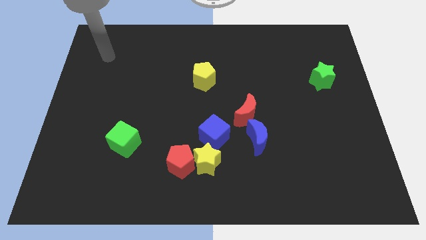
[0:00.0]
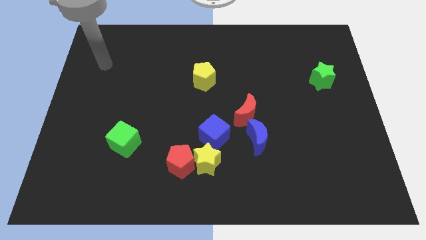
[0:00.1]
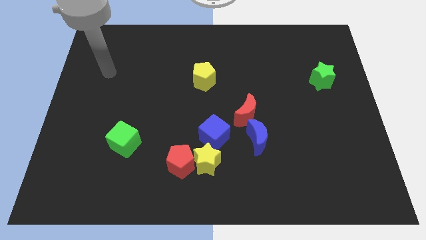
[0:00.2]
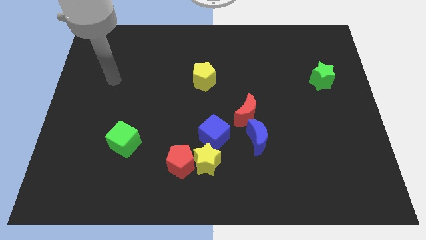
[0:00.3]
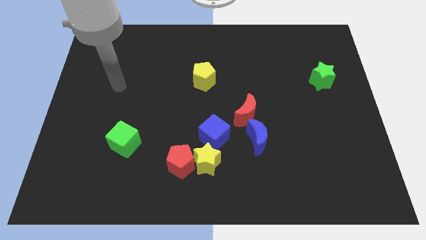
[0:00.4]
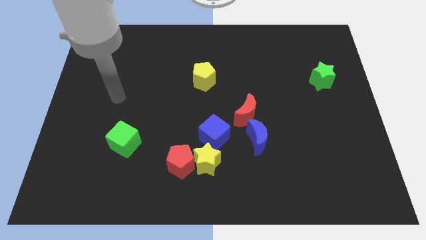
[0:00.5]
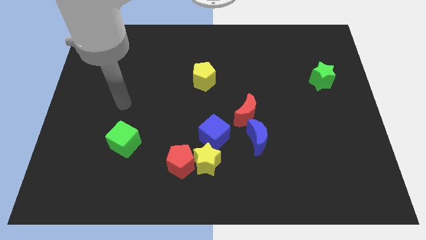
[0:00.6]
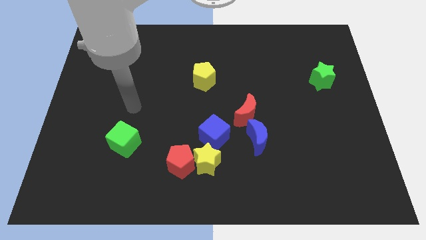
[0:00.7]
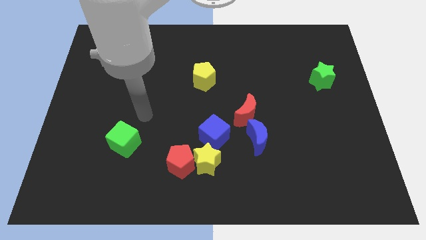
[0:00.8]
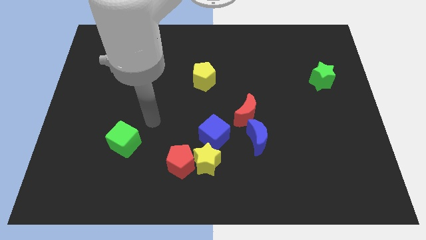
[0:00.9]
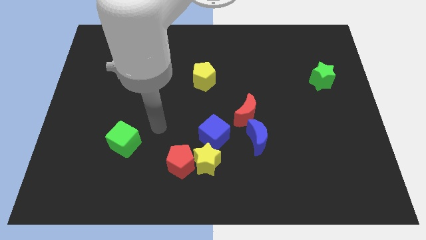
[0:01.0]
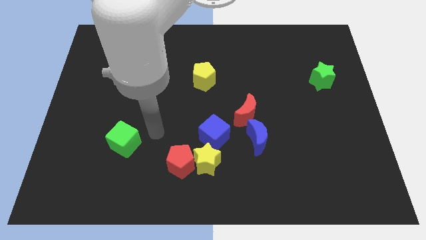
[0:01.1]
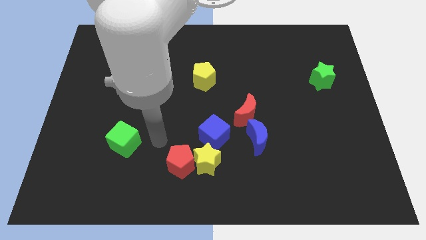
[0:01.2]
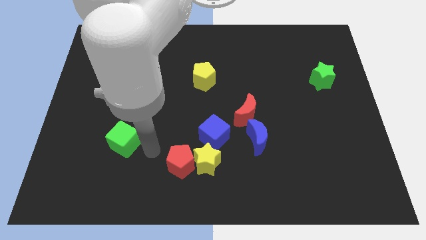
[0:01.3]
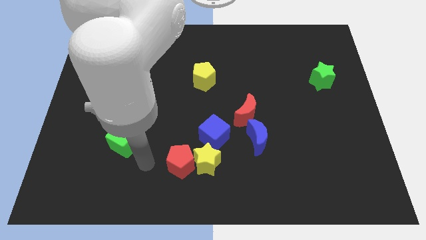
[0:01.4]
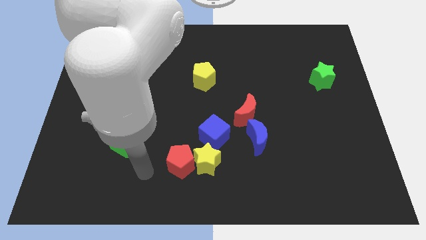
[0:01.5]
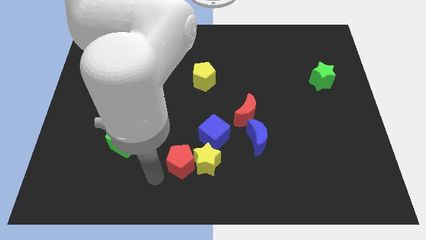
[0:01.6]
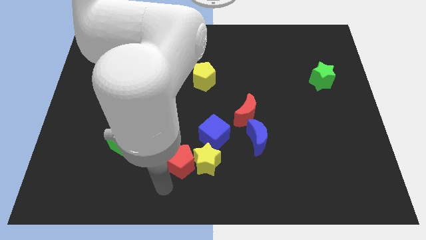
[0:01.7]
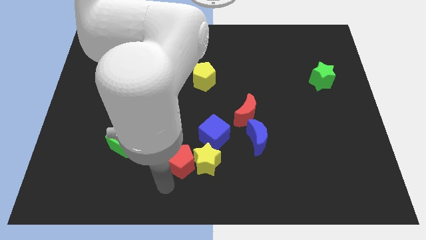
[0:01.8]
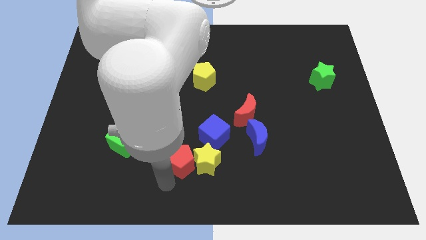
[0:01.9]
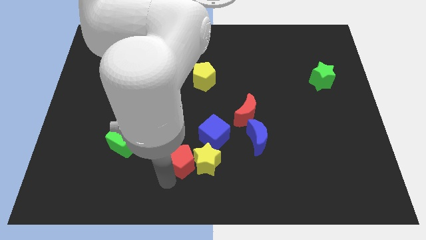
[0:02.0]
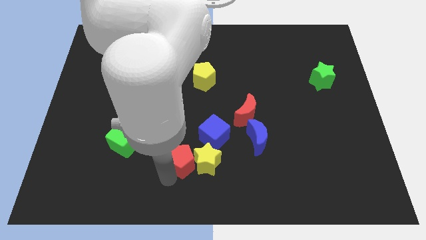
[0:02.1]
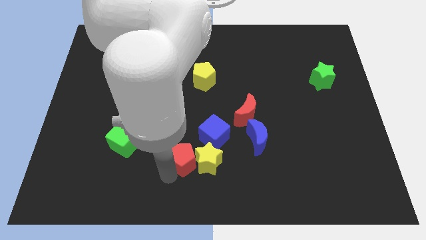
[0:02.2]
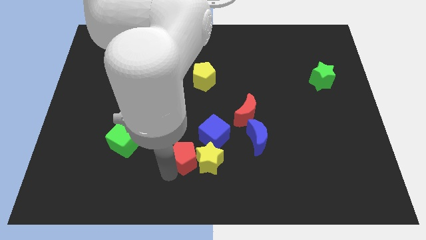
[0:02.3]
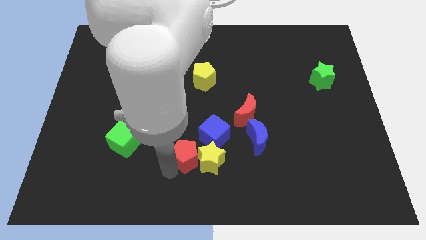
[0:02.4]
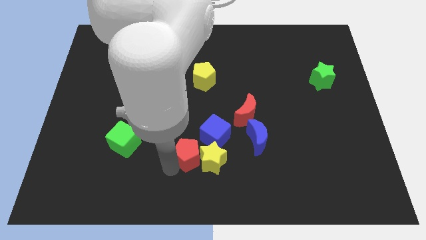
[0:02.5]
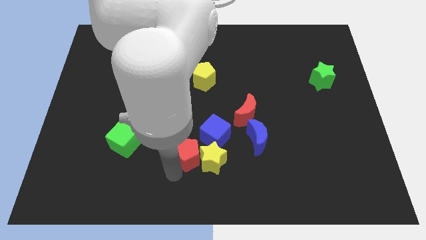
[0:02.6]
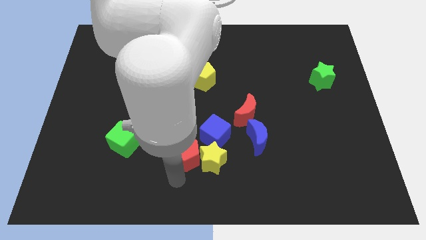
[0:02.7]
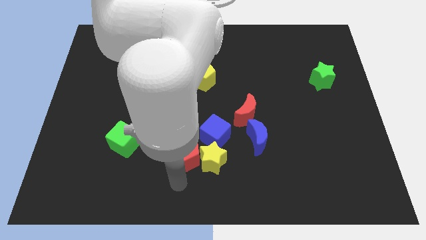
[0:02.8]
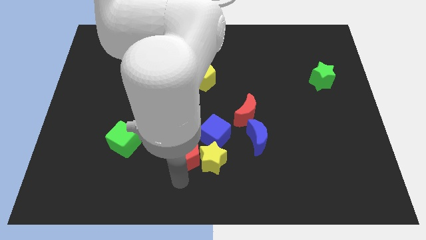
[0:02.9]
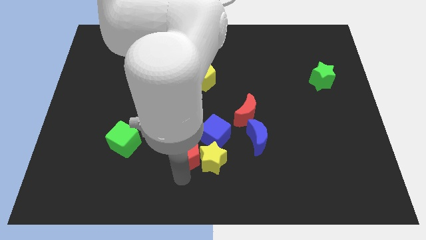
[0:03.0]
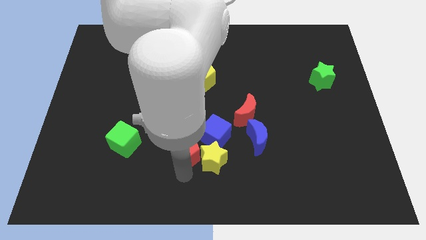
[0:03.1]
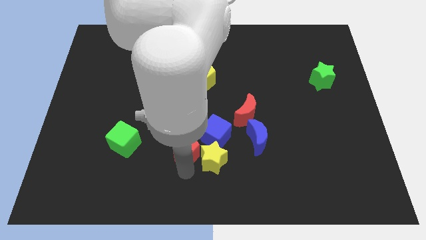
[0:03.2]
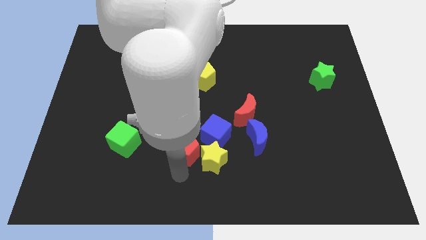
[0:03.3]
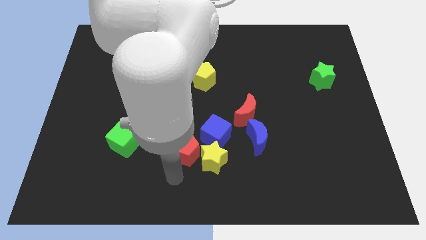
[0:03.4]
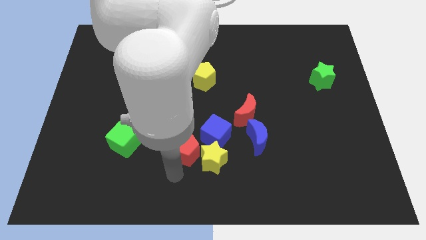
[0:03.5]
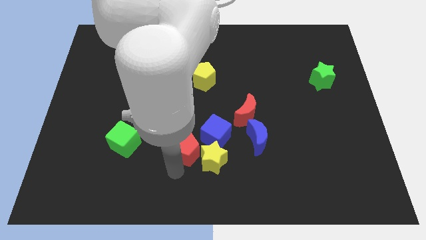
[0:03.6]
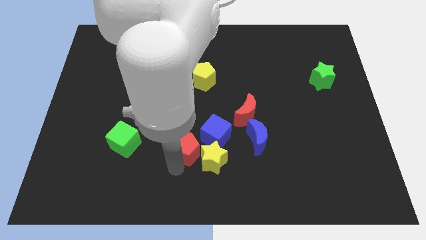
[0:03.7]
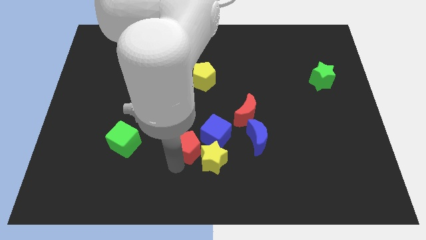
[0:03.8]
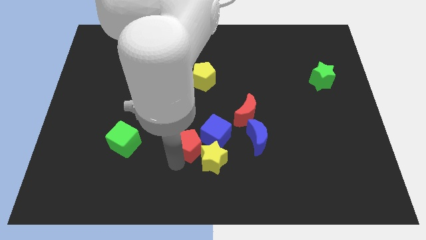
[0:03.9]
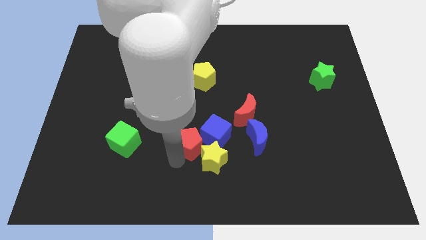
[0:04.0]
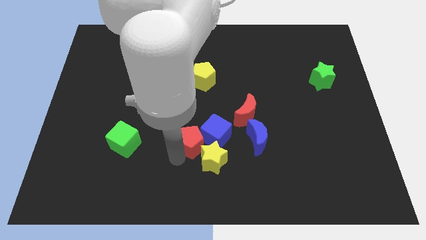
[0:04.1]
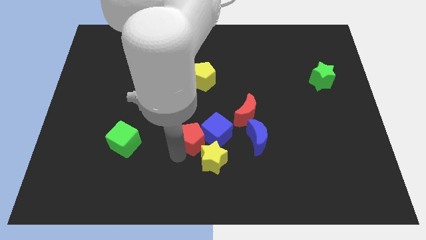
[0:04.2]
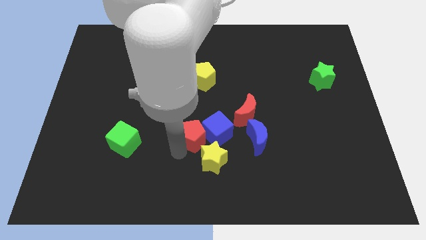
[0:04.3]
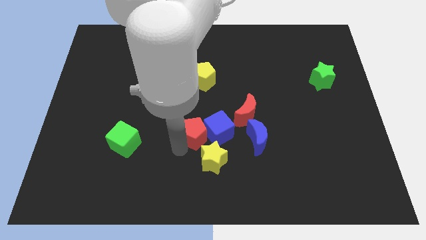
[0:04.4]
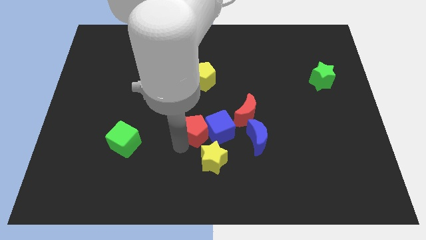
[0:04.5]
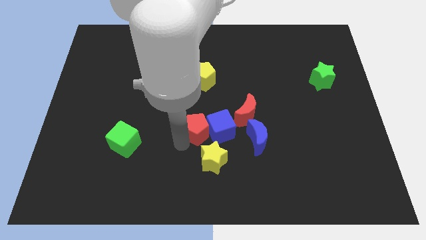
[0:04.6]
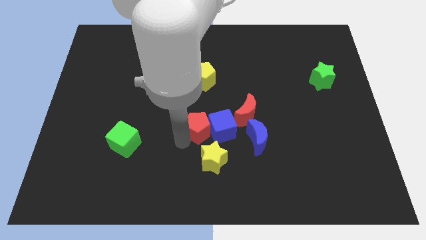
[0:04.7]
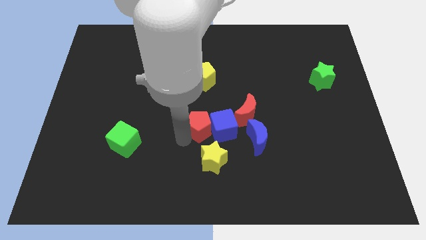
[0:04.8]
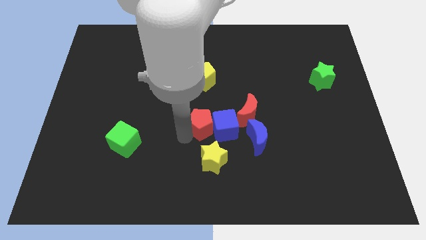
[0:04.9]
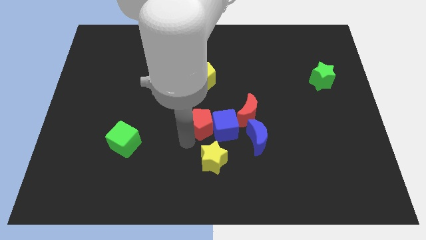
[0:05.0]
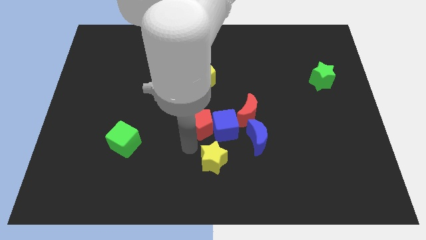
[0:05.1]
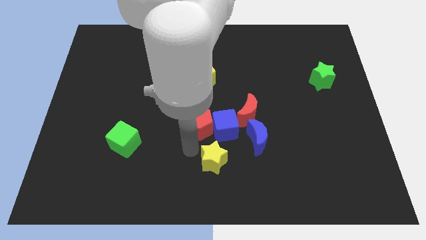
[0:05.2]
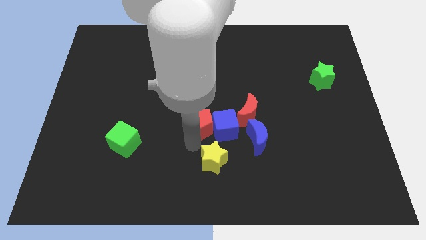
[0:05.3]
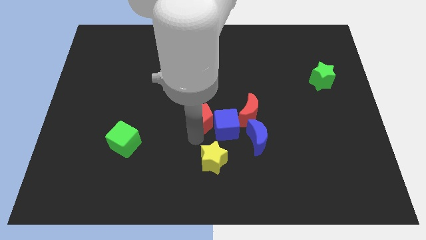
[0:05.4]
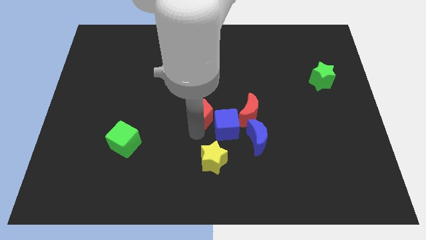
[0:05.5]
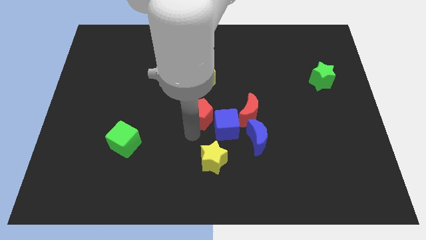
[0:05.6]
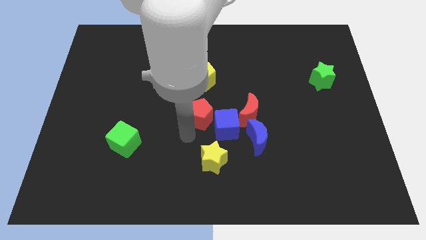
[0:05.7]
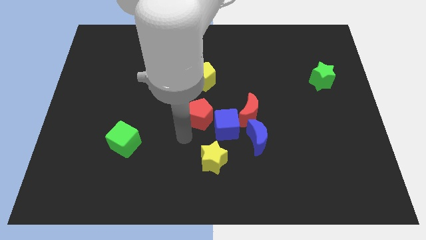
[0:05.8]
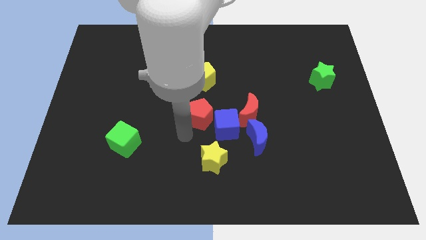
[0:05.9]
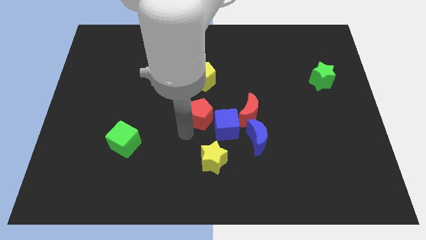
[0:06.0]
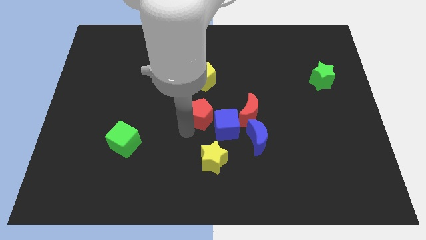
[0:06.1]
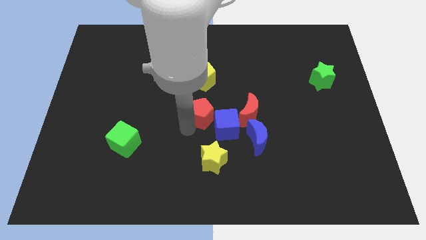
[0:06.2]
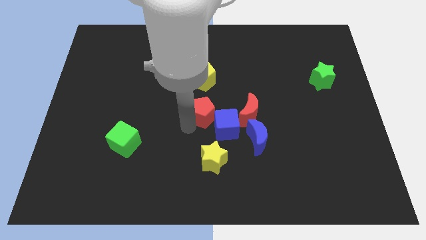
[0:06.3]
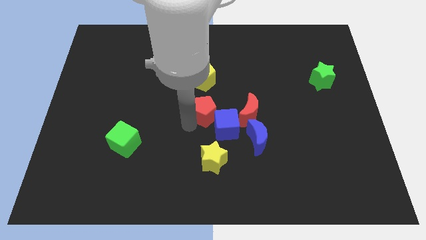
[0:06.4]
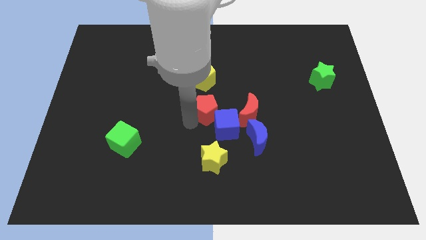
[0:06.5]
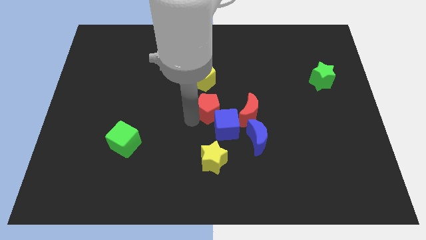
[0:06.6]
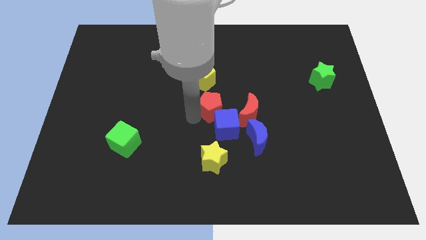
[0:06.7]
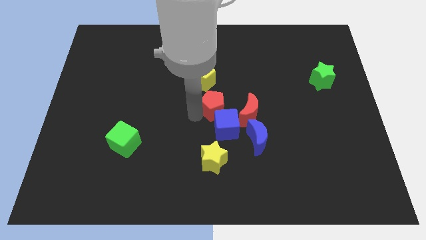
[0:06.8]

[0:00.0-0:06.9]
put the red pentagon to the bottom right of the yellow pentagon
